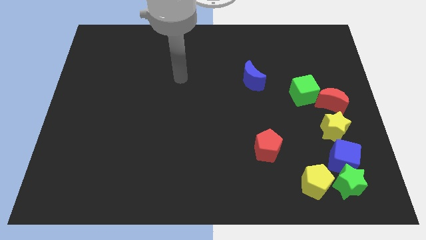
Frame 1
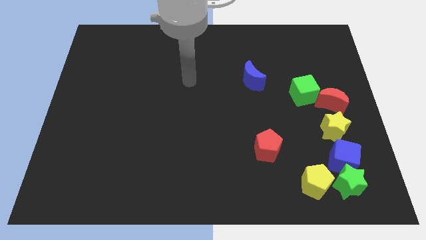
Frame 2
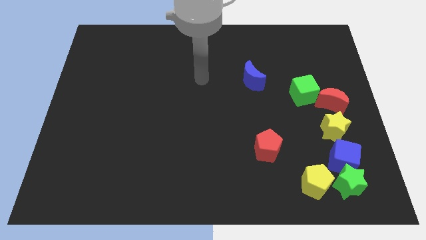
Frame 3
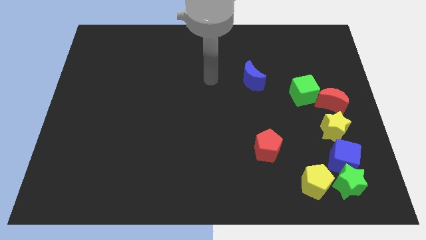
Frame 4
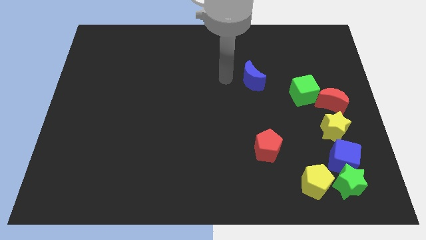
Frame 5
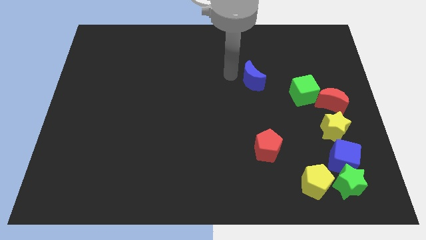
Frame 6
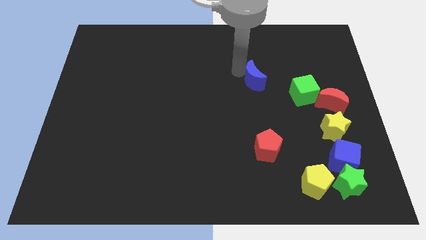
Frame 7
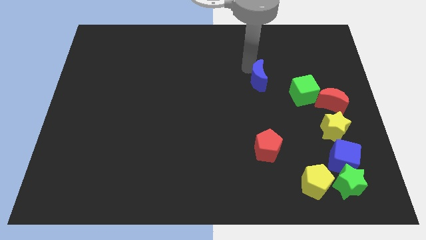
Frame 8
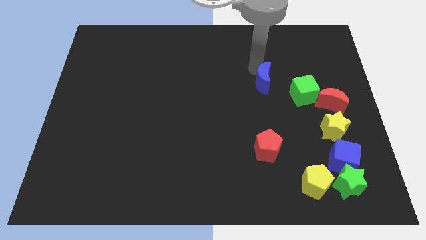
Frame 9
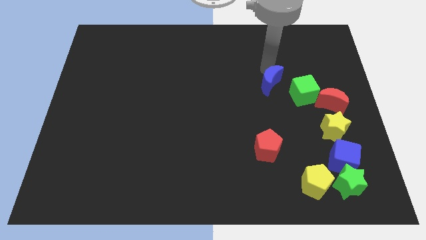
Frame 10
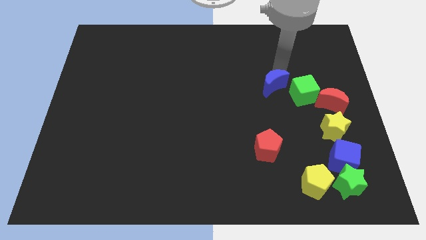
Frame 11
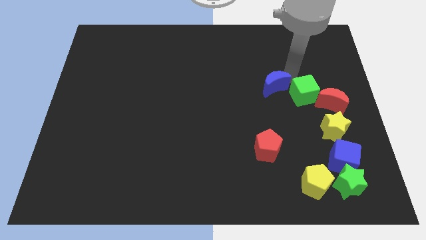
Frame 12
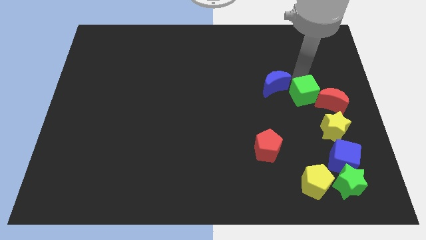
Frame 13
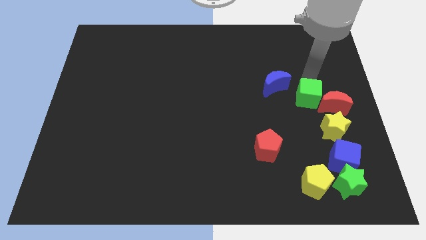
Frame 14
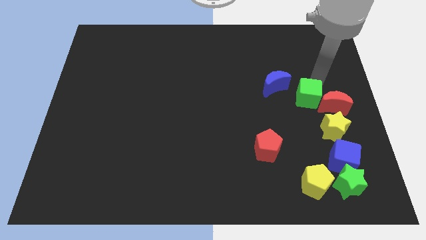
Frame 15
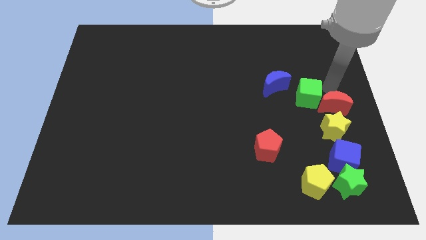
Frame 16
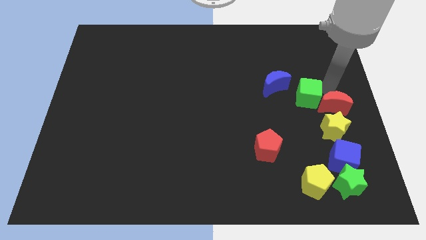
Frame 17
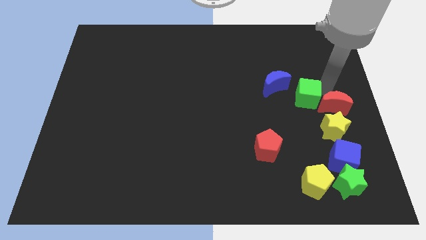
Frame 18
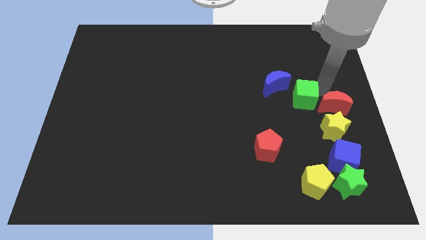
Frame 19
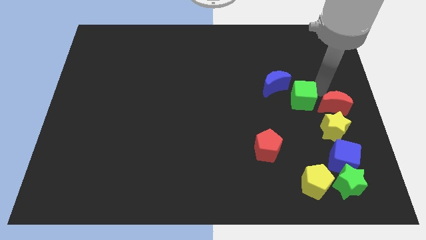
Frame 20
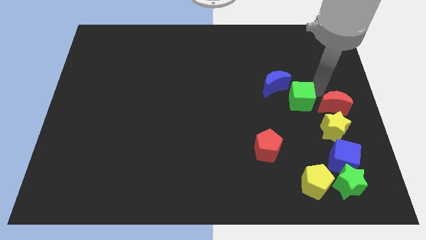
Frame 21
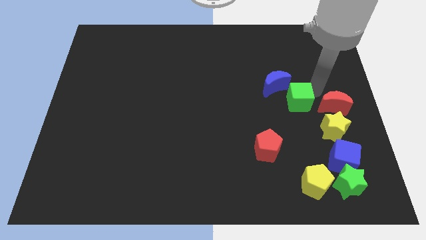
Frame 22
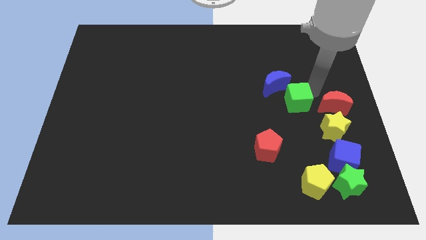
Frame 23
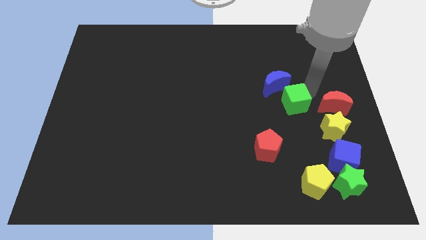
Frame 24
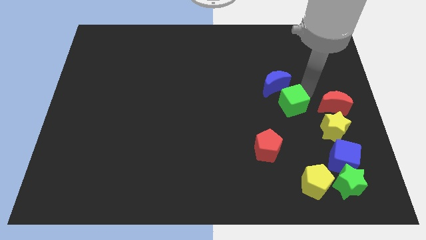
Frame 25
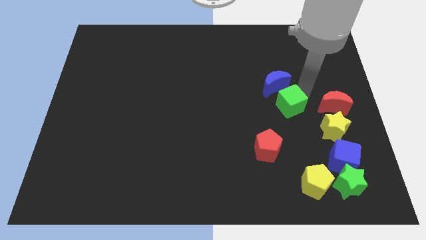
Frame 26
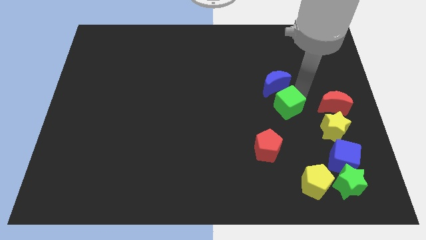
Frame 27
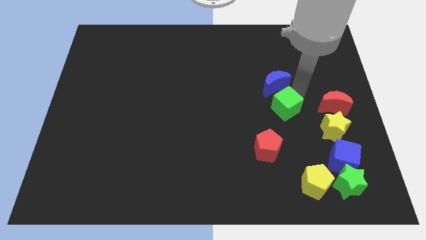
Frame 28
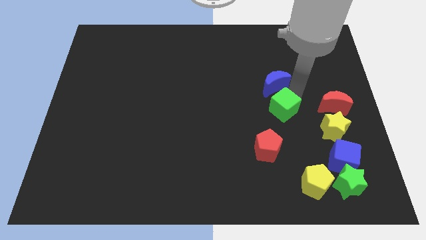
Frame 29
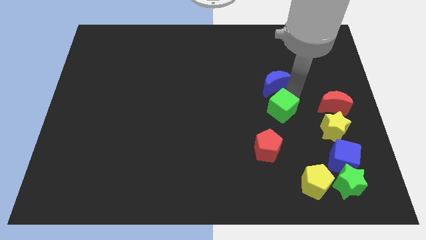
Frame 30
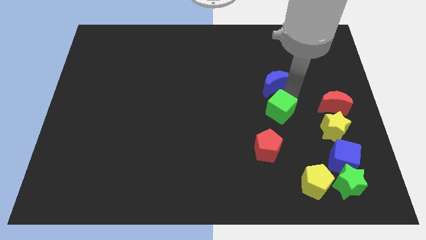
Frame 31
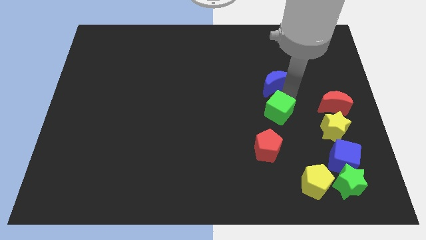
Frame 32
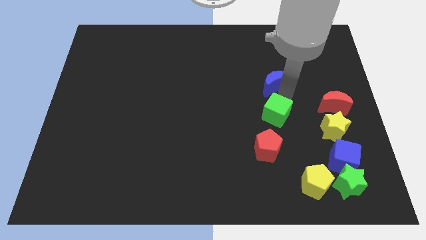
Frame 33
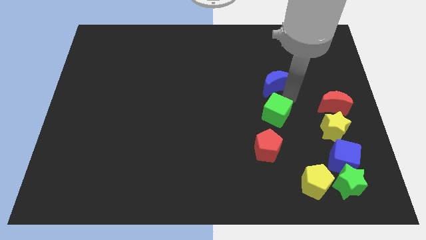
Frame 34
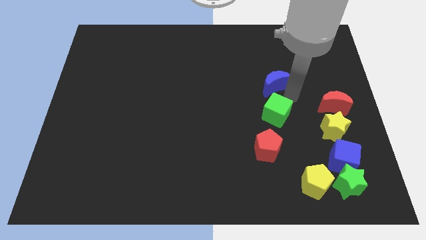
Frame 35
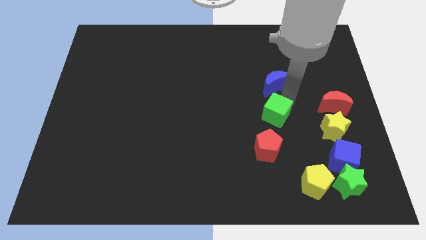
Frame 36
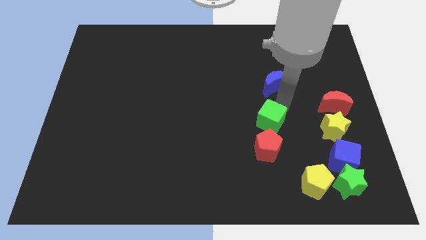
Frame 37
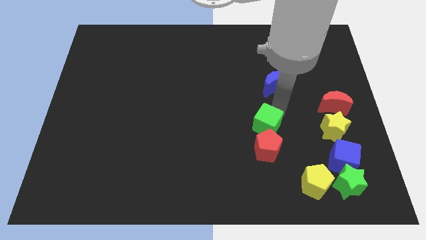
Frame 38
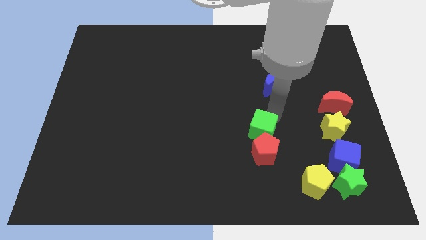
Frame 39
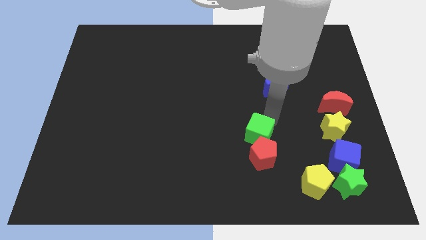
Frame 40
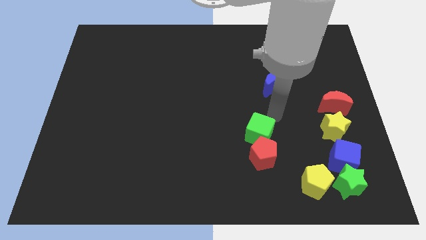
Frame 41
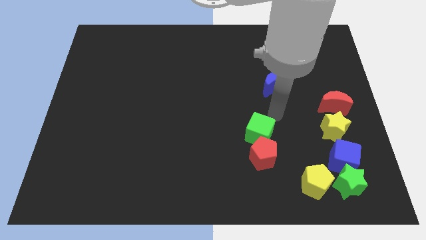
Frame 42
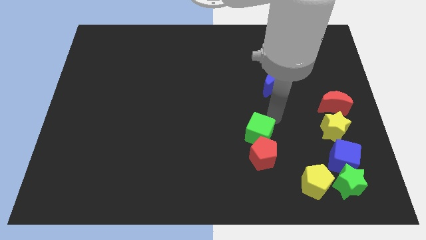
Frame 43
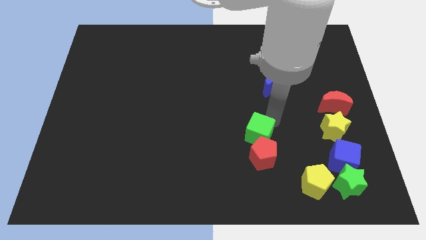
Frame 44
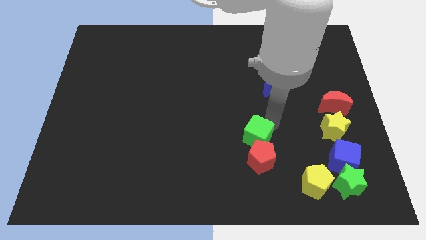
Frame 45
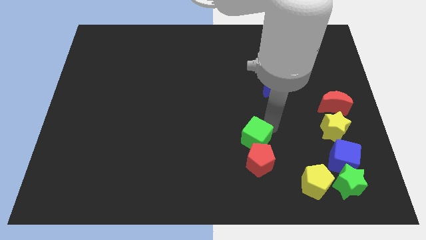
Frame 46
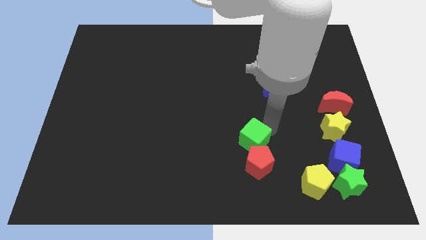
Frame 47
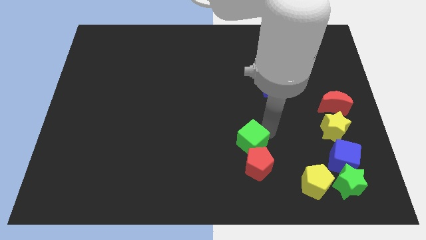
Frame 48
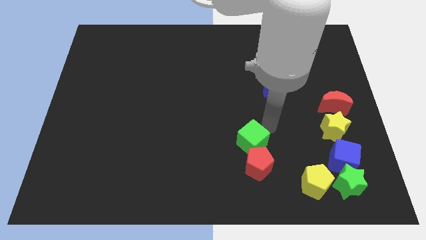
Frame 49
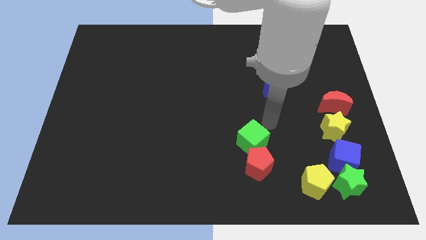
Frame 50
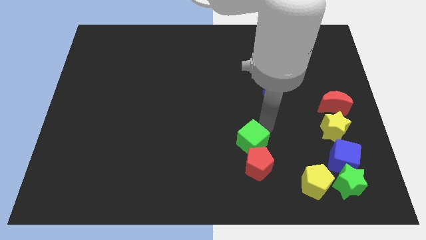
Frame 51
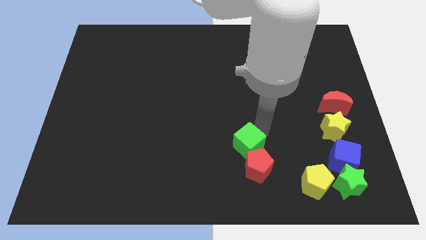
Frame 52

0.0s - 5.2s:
push the green cube down and left

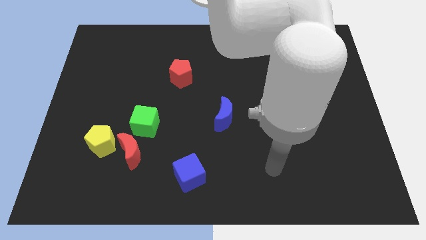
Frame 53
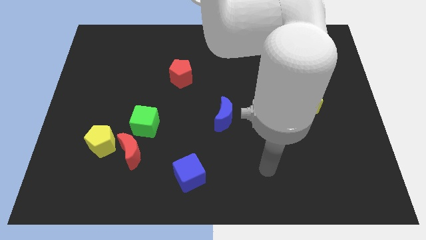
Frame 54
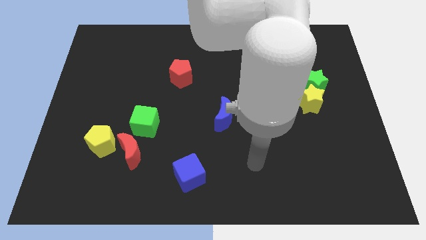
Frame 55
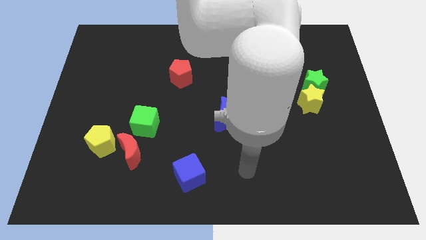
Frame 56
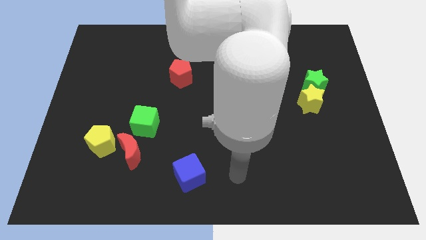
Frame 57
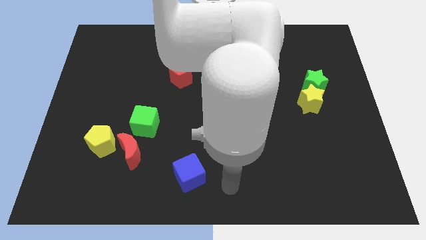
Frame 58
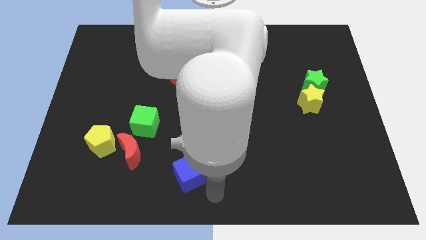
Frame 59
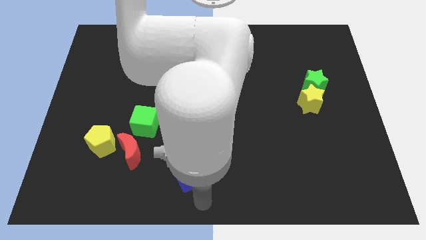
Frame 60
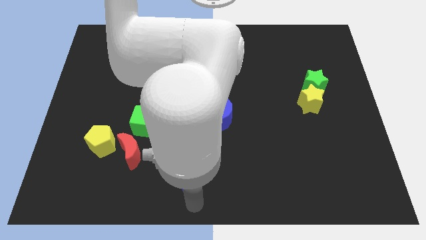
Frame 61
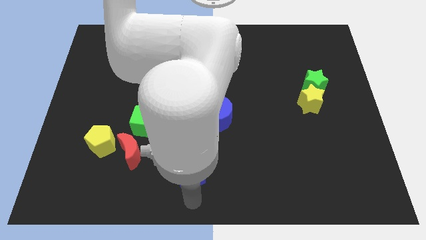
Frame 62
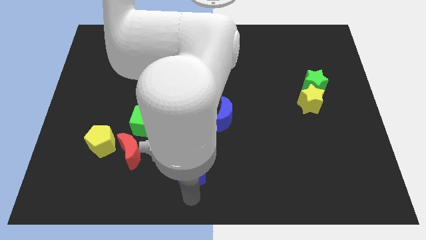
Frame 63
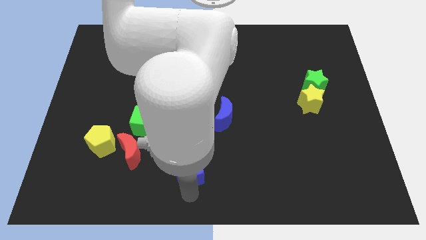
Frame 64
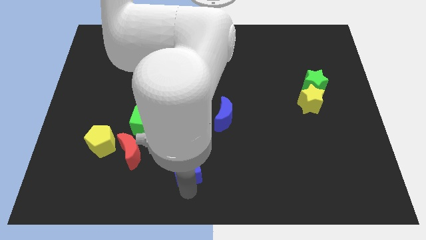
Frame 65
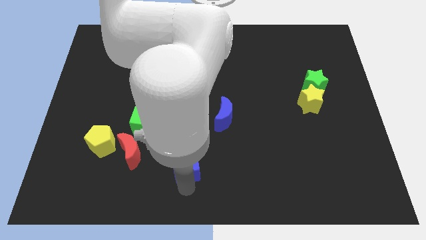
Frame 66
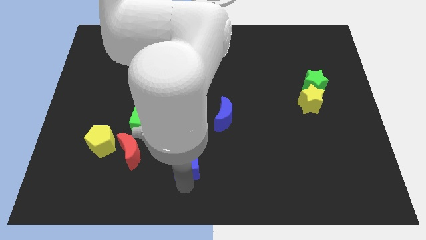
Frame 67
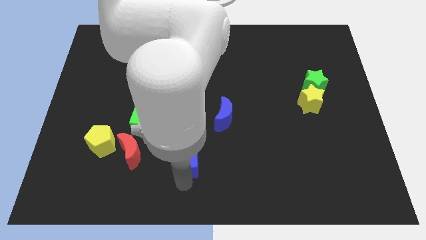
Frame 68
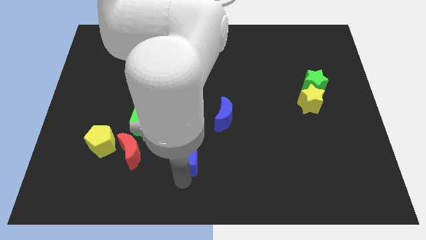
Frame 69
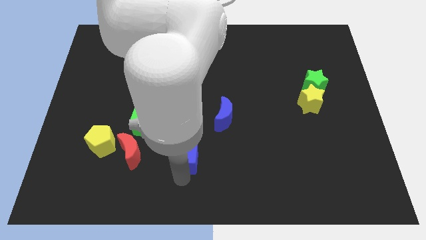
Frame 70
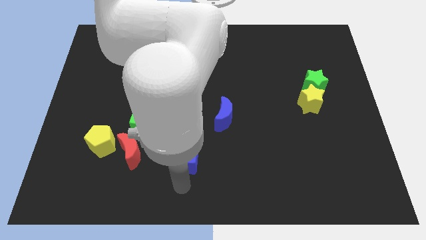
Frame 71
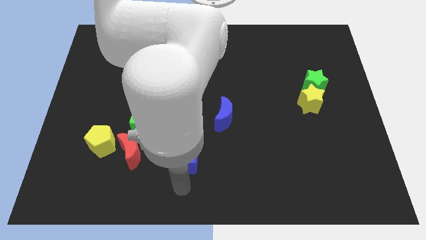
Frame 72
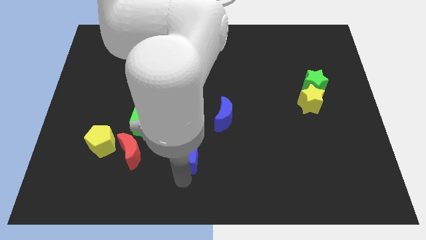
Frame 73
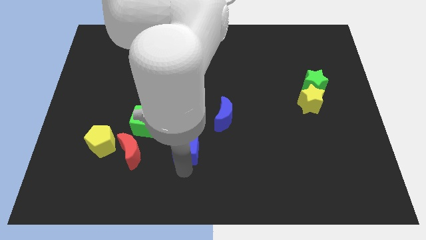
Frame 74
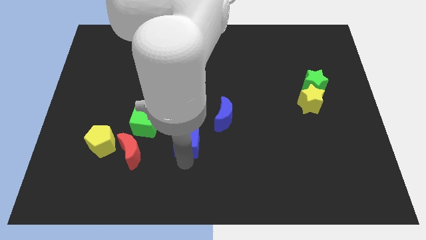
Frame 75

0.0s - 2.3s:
slightly push the blue cube upwards

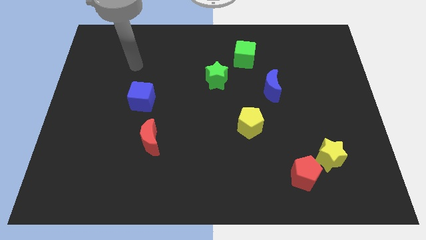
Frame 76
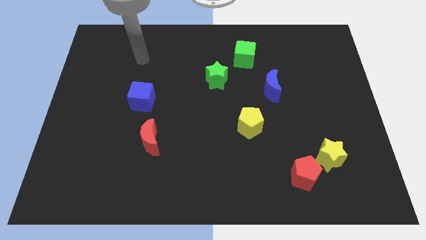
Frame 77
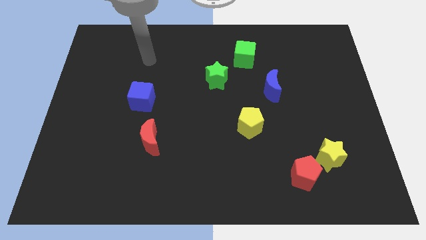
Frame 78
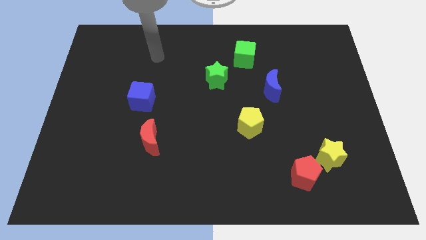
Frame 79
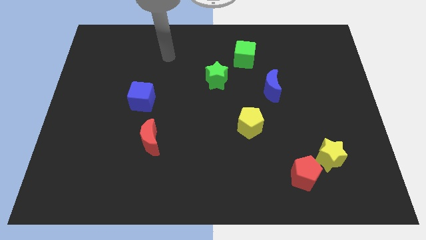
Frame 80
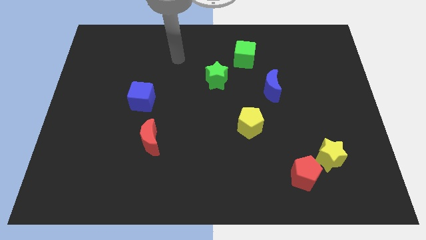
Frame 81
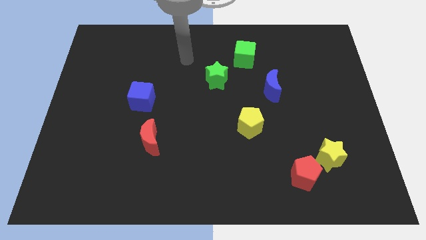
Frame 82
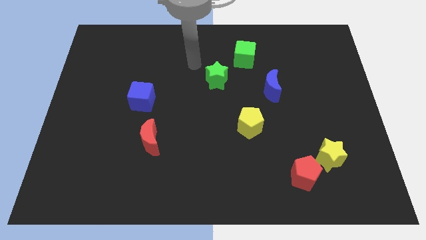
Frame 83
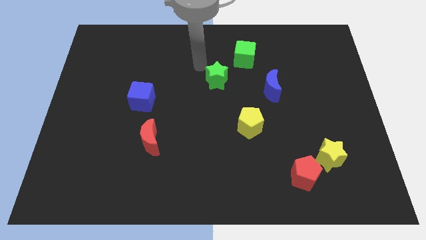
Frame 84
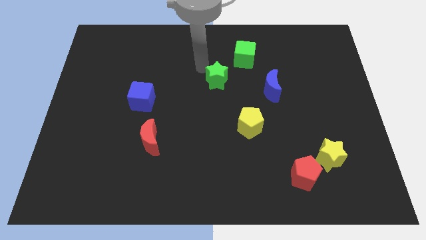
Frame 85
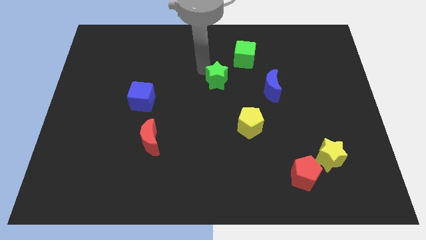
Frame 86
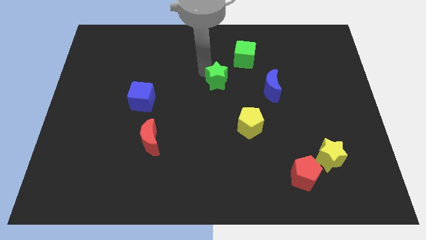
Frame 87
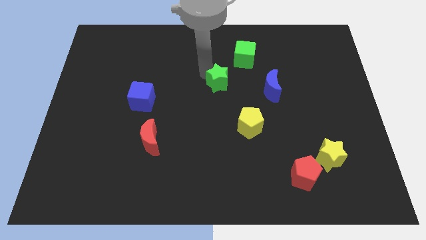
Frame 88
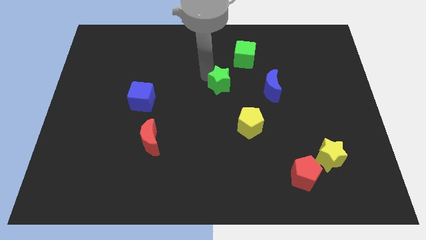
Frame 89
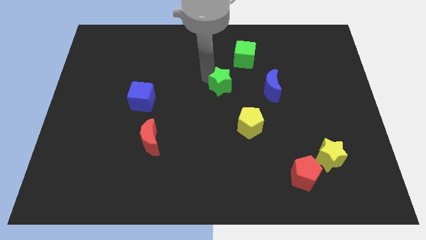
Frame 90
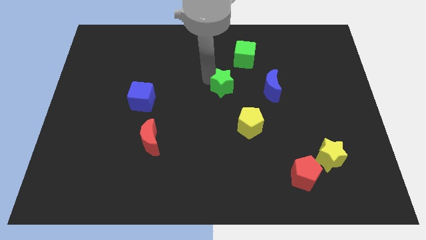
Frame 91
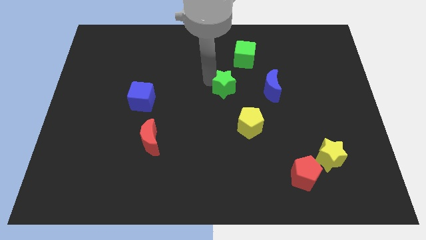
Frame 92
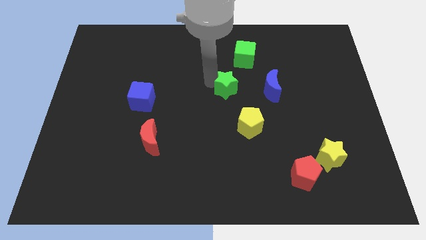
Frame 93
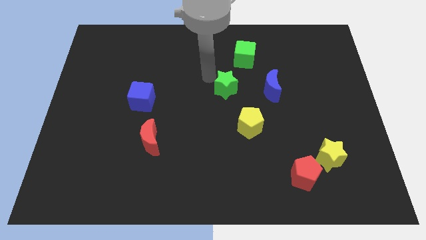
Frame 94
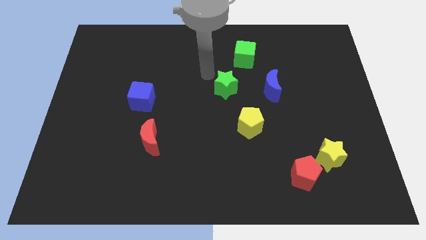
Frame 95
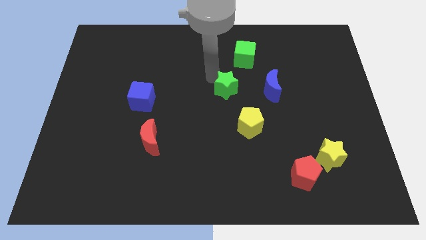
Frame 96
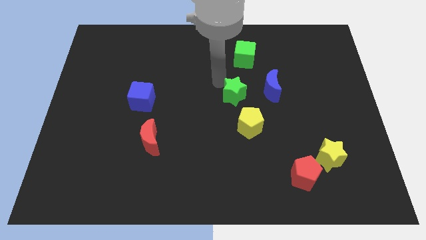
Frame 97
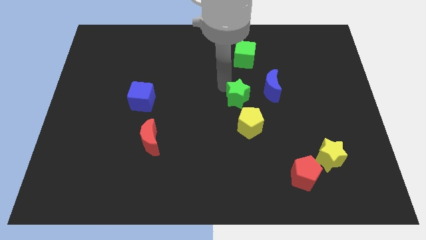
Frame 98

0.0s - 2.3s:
move the green star downwards and right diagonally somewhat
